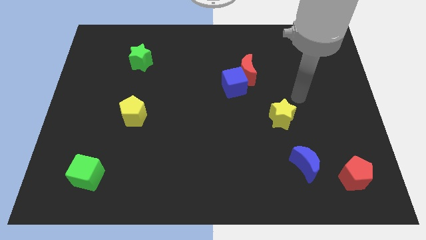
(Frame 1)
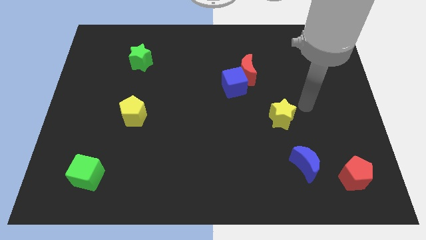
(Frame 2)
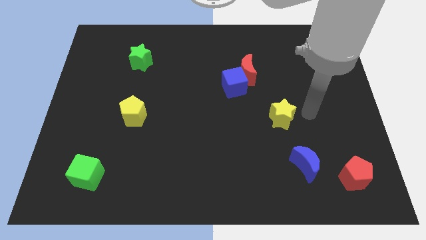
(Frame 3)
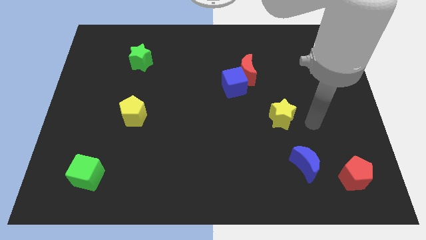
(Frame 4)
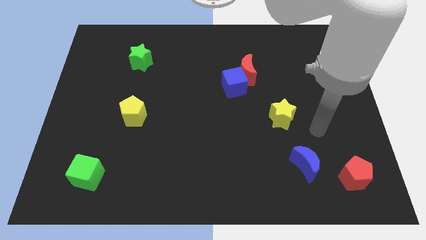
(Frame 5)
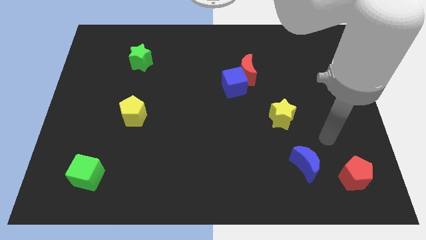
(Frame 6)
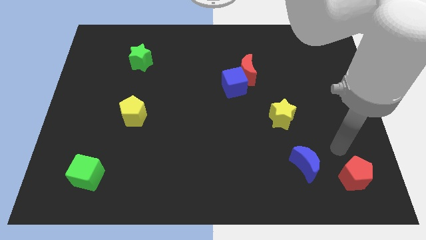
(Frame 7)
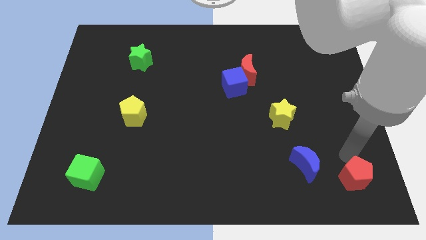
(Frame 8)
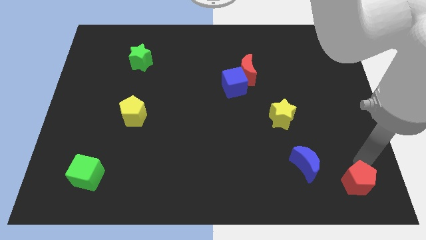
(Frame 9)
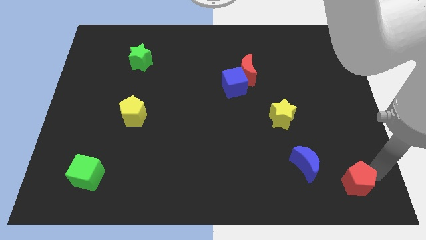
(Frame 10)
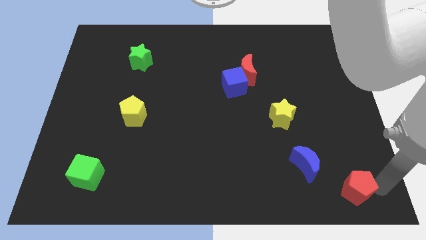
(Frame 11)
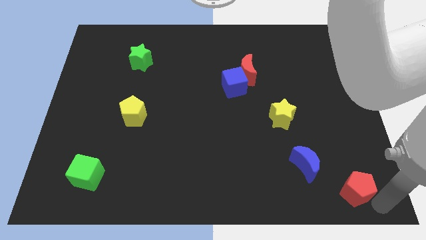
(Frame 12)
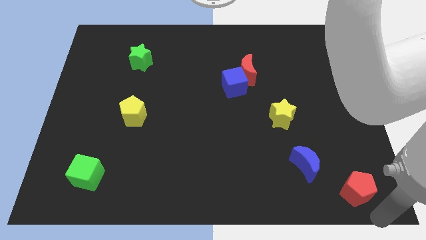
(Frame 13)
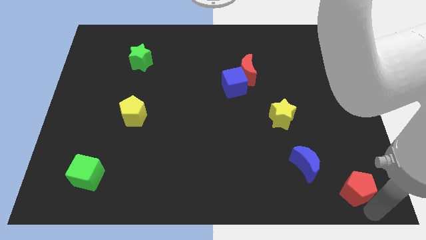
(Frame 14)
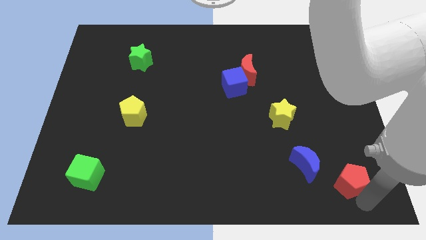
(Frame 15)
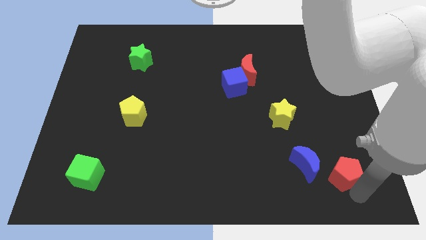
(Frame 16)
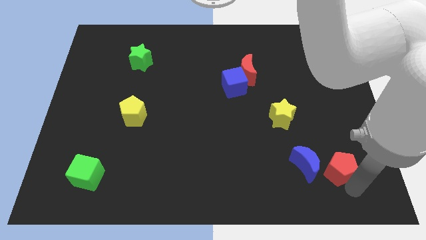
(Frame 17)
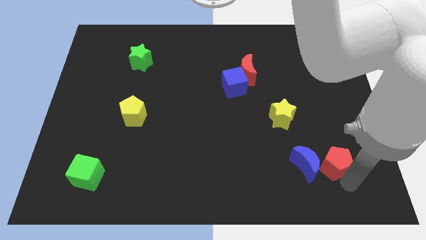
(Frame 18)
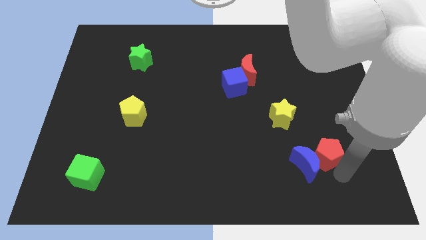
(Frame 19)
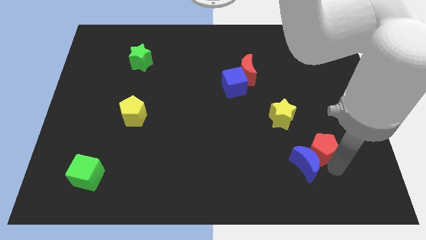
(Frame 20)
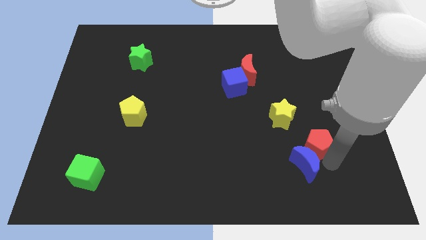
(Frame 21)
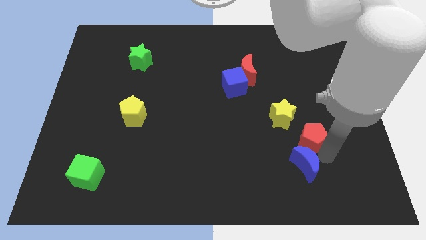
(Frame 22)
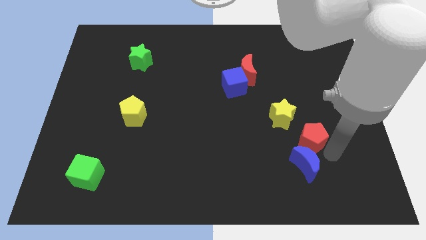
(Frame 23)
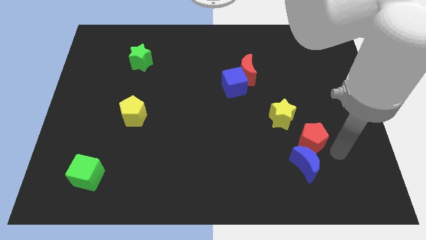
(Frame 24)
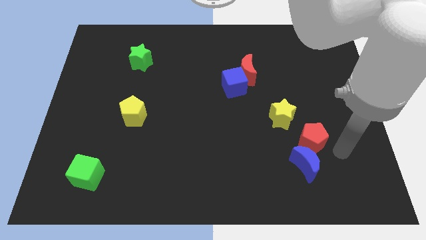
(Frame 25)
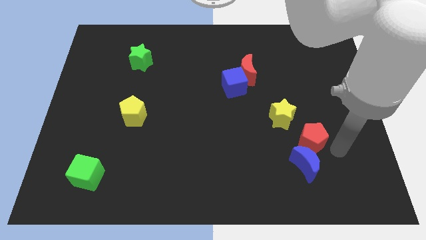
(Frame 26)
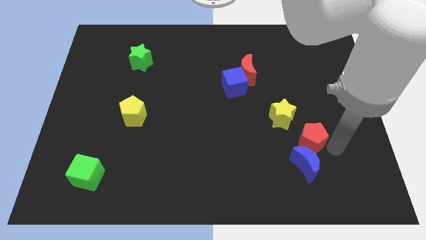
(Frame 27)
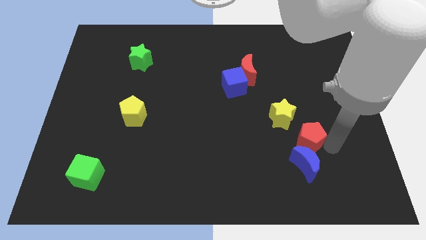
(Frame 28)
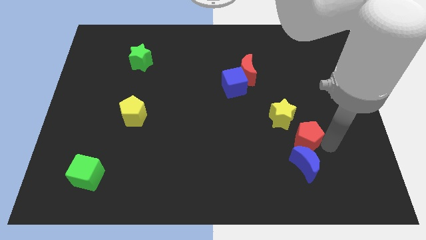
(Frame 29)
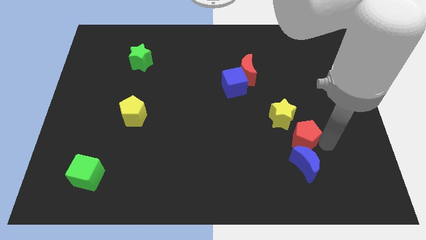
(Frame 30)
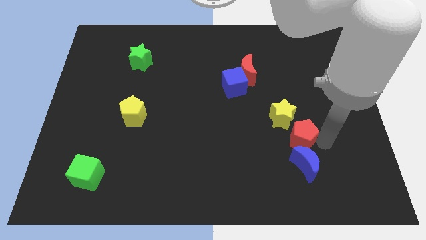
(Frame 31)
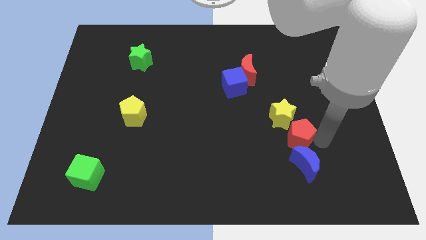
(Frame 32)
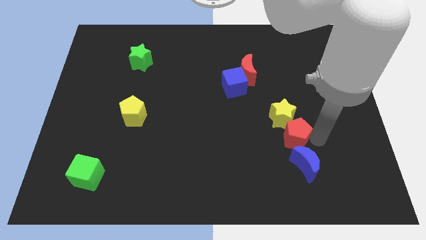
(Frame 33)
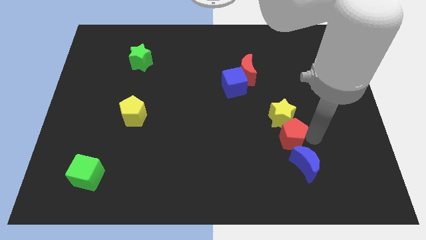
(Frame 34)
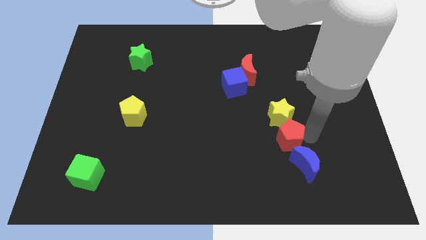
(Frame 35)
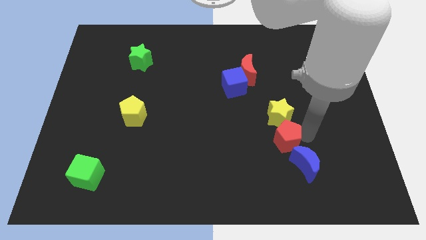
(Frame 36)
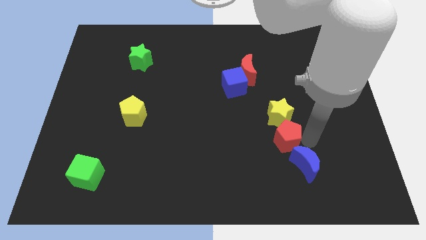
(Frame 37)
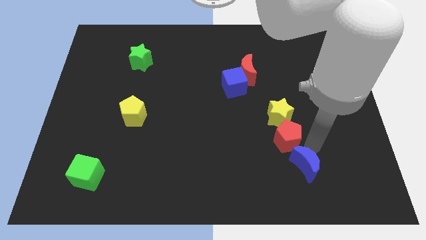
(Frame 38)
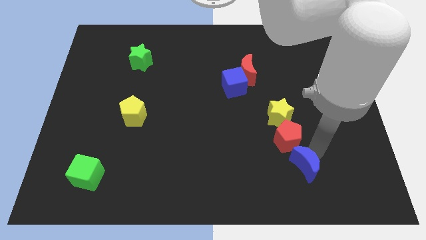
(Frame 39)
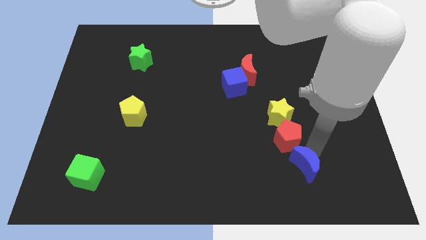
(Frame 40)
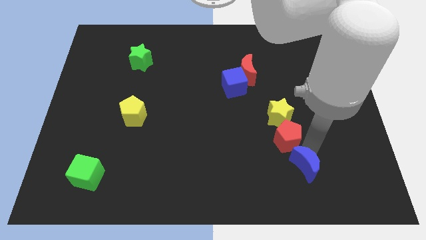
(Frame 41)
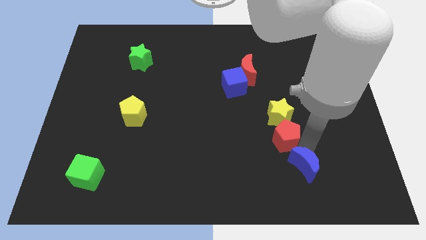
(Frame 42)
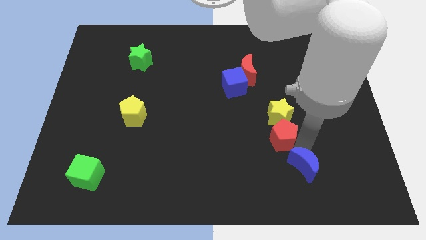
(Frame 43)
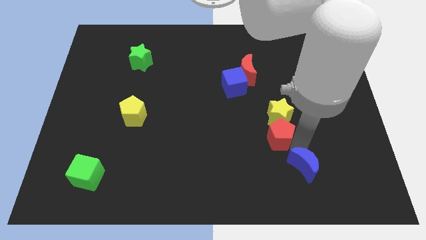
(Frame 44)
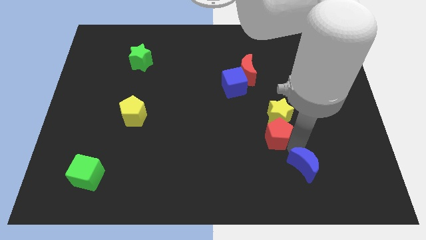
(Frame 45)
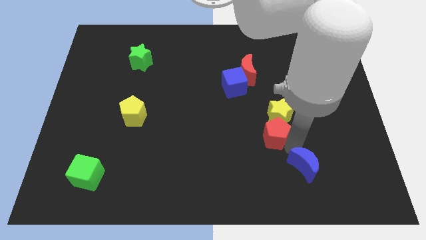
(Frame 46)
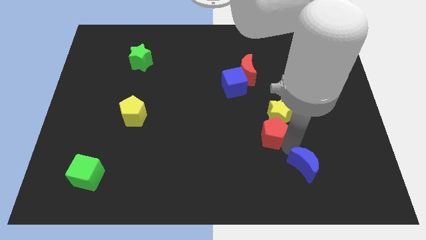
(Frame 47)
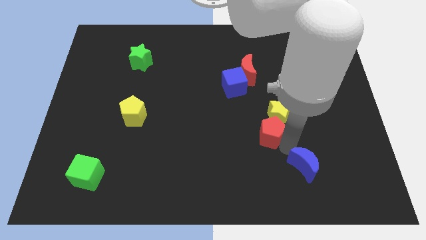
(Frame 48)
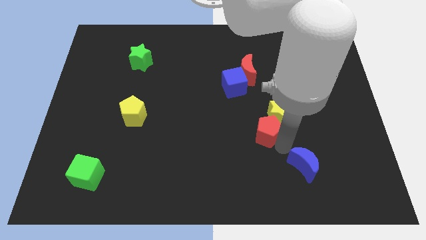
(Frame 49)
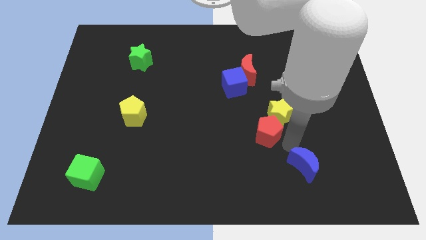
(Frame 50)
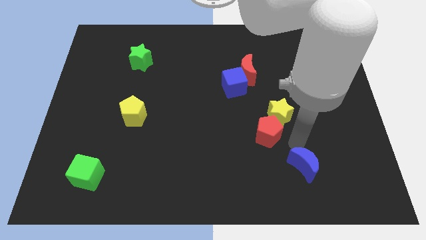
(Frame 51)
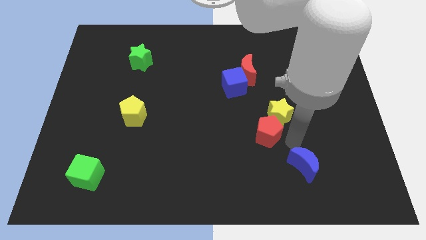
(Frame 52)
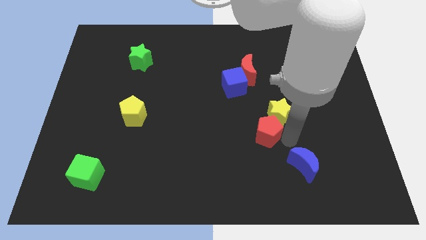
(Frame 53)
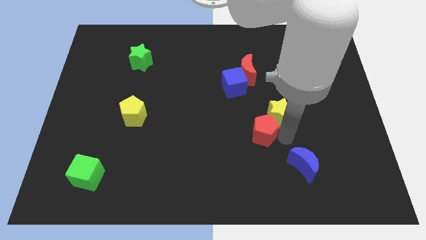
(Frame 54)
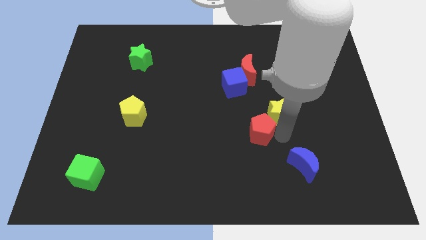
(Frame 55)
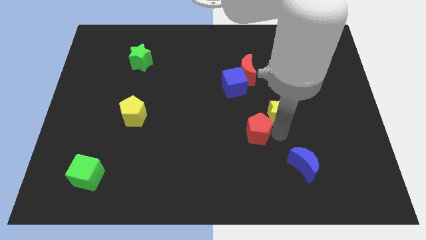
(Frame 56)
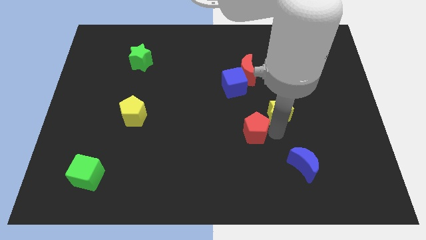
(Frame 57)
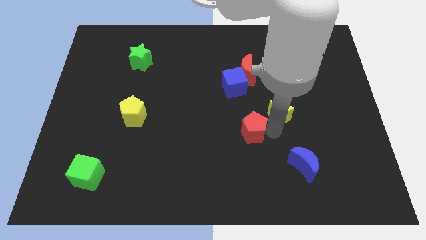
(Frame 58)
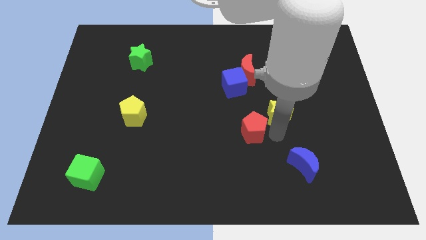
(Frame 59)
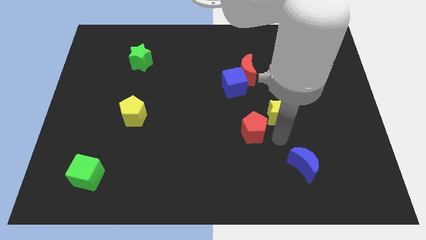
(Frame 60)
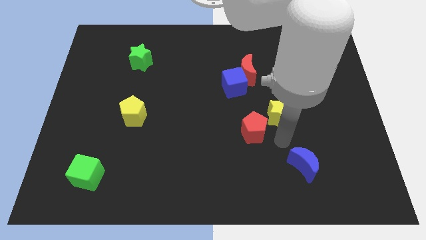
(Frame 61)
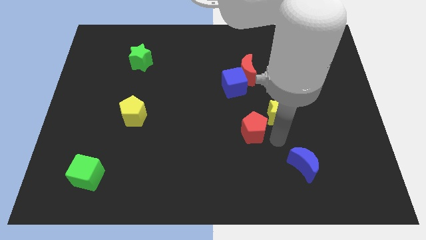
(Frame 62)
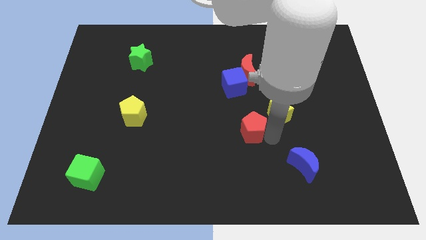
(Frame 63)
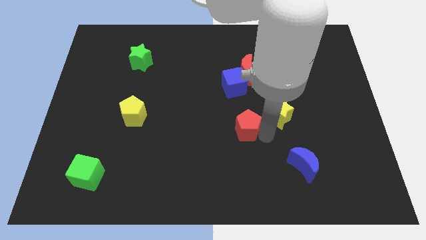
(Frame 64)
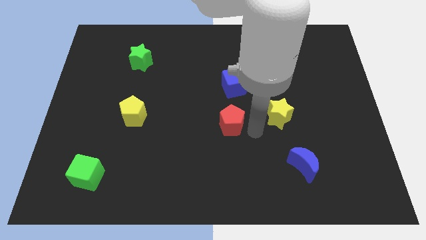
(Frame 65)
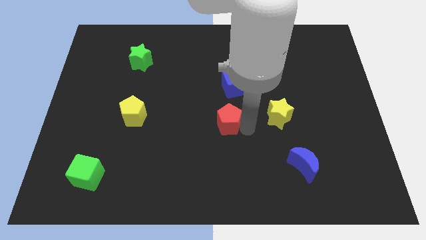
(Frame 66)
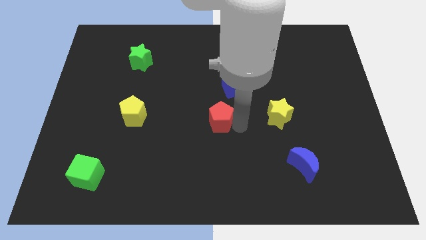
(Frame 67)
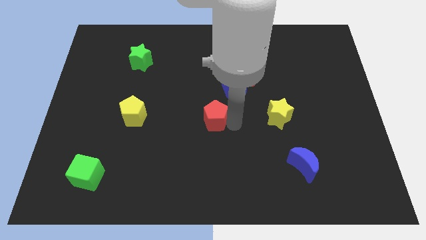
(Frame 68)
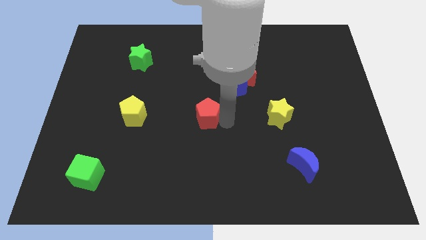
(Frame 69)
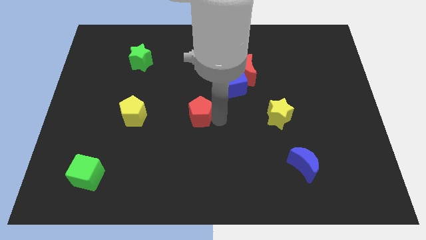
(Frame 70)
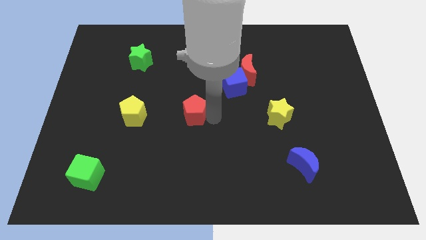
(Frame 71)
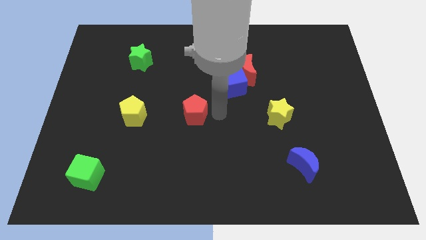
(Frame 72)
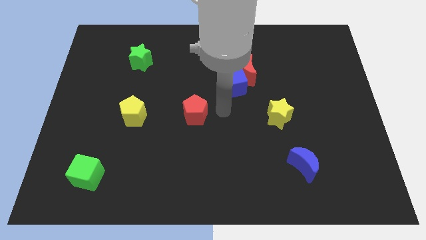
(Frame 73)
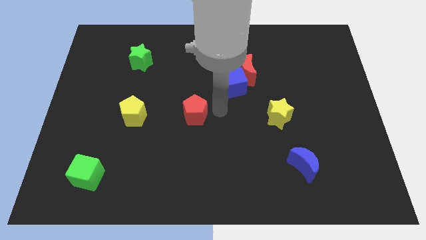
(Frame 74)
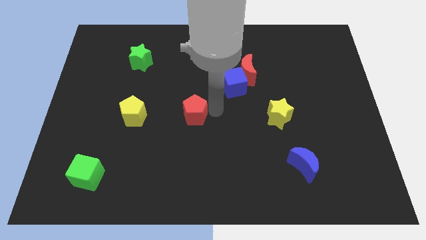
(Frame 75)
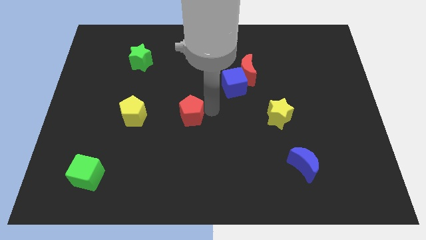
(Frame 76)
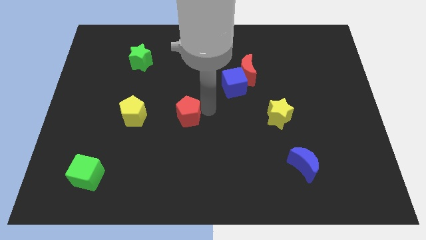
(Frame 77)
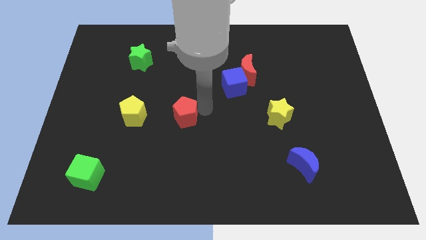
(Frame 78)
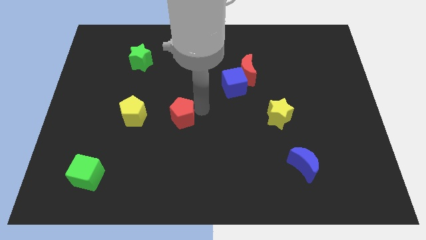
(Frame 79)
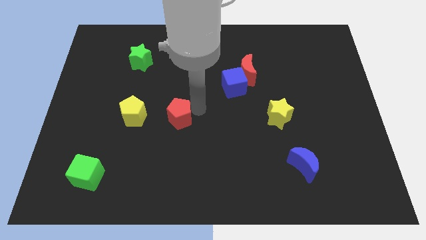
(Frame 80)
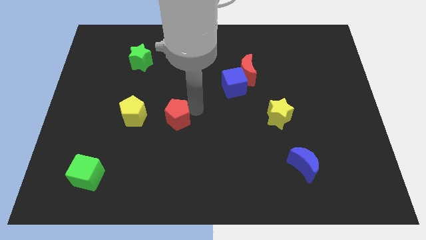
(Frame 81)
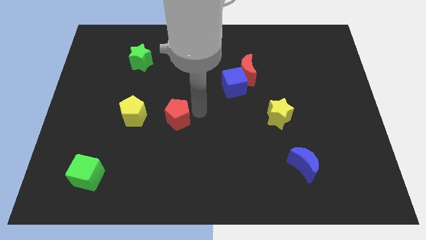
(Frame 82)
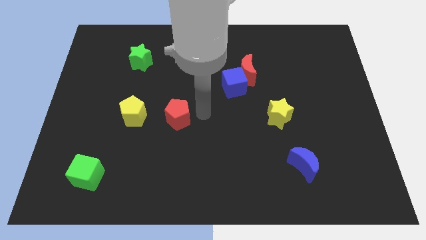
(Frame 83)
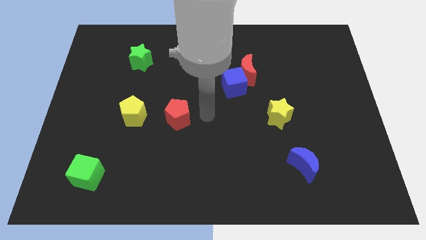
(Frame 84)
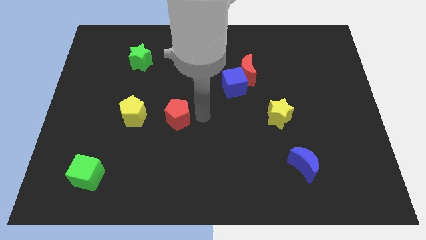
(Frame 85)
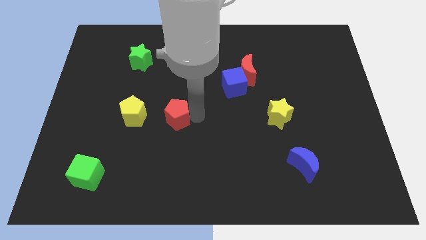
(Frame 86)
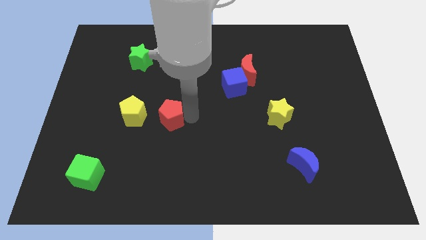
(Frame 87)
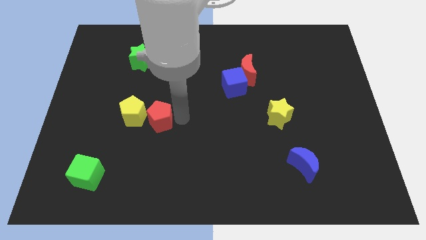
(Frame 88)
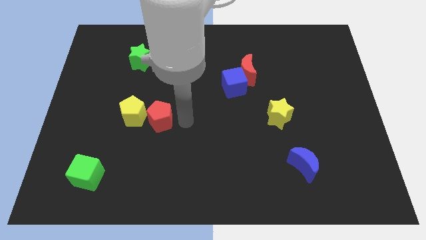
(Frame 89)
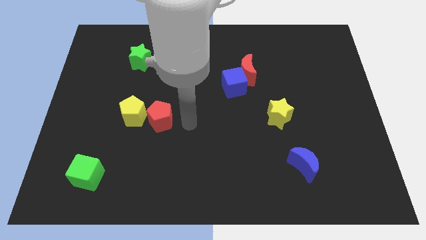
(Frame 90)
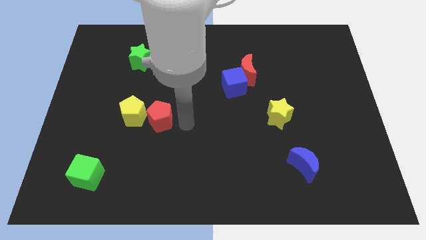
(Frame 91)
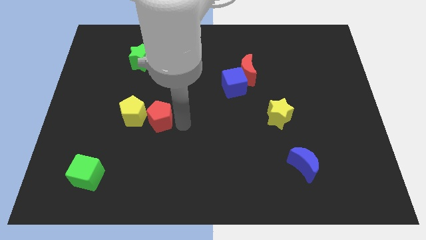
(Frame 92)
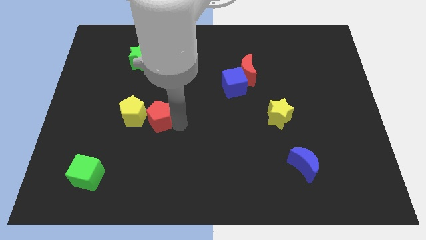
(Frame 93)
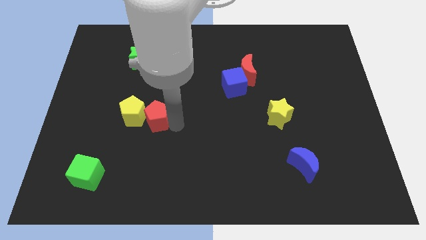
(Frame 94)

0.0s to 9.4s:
slide the red pentagon towards the yellow pentagon
